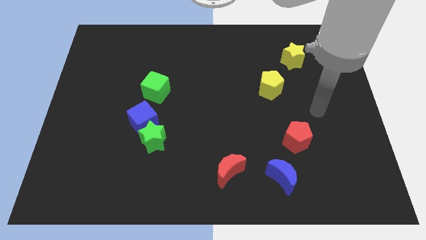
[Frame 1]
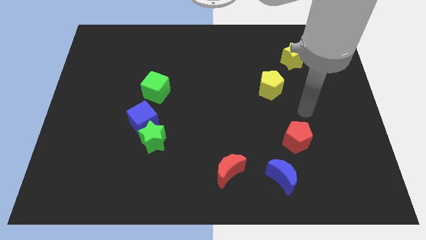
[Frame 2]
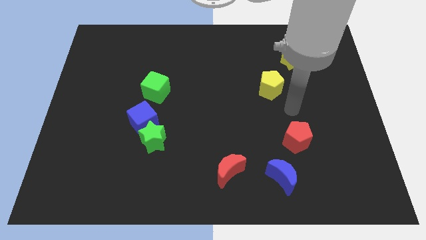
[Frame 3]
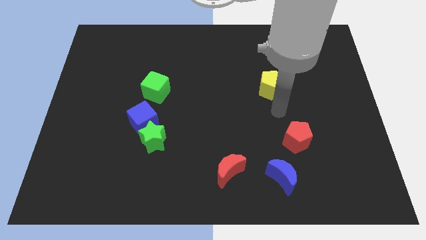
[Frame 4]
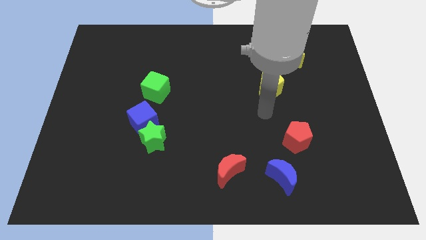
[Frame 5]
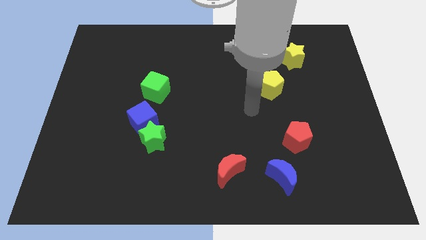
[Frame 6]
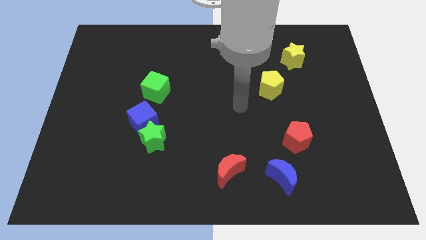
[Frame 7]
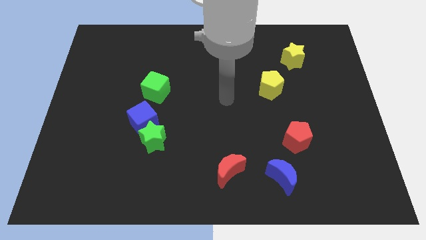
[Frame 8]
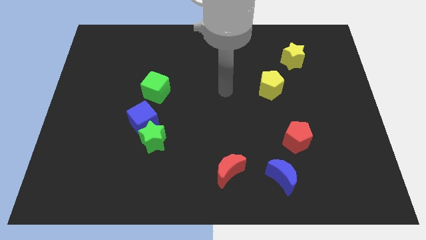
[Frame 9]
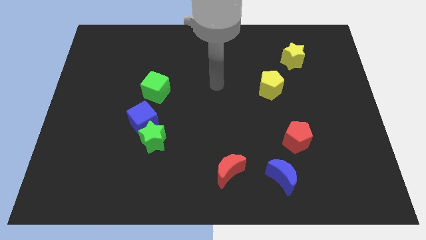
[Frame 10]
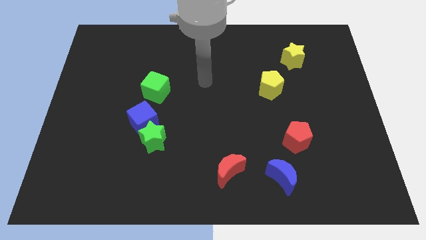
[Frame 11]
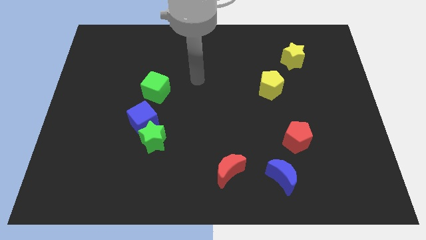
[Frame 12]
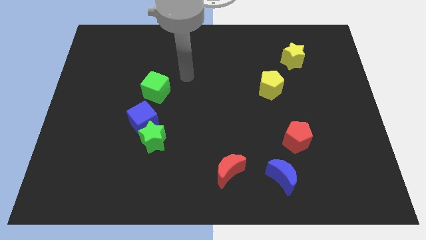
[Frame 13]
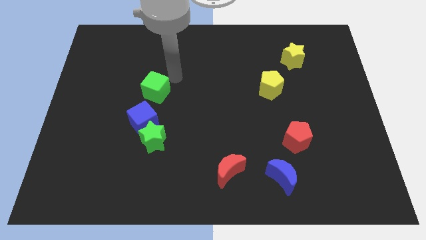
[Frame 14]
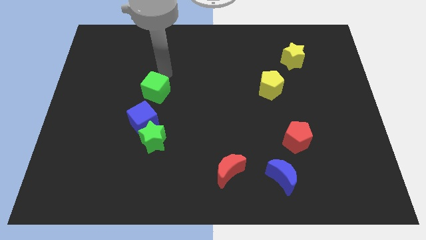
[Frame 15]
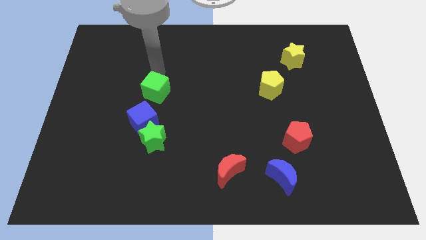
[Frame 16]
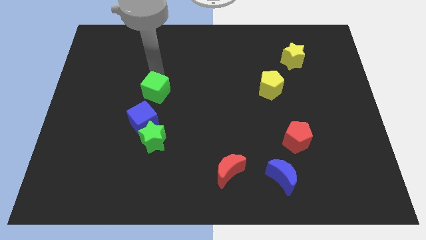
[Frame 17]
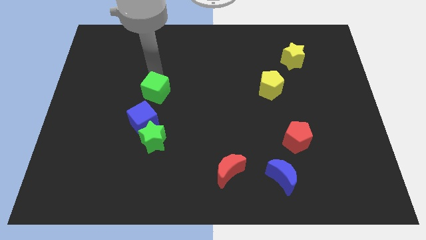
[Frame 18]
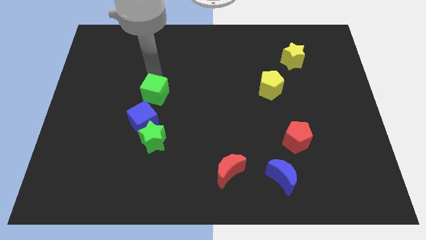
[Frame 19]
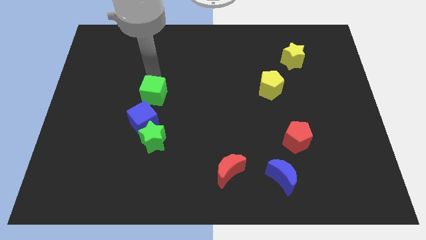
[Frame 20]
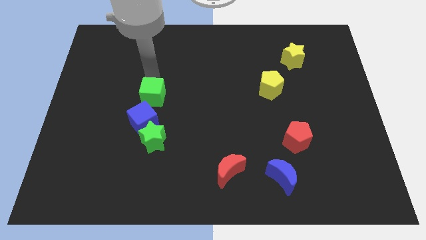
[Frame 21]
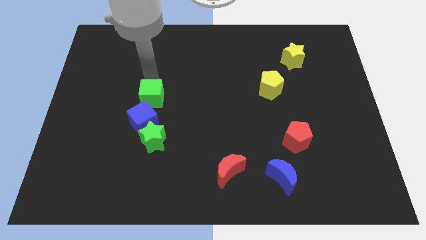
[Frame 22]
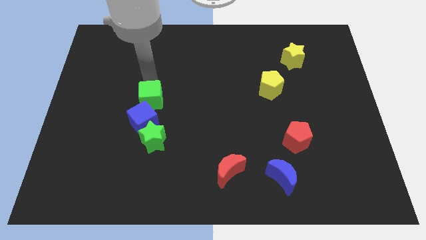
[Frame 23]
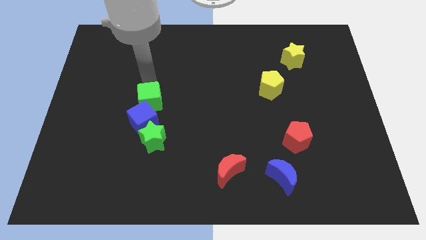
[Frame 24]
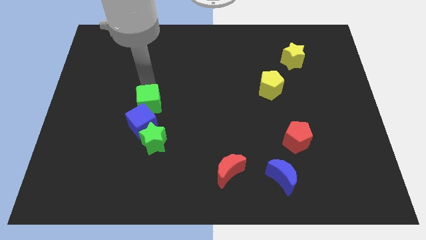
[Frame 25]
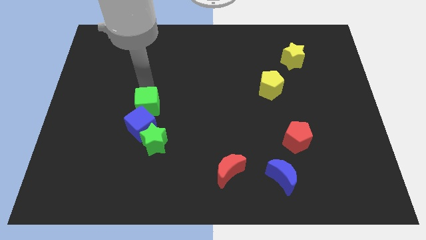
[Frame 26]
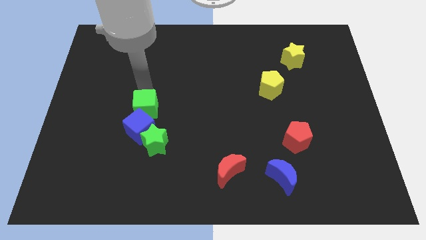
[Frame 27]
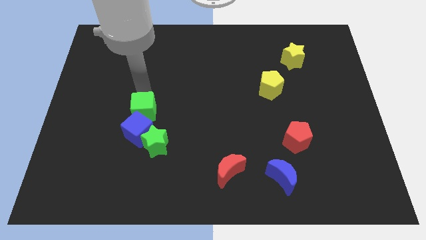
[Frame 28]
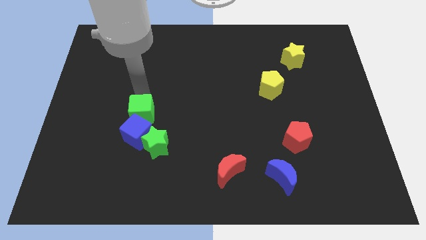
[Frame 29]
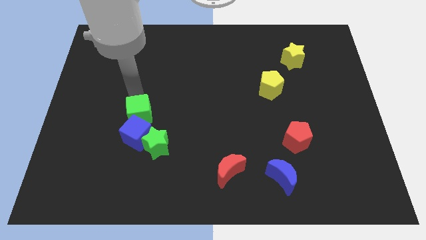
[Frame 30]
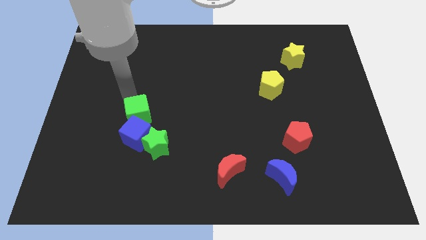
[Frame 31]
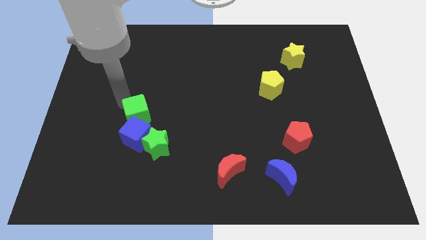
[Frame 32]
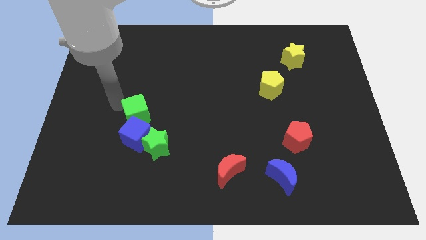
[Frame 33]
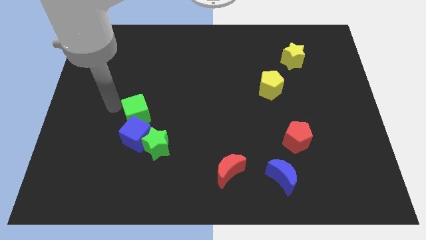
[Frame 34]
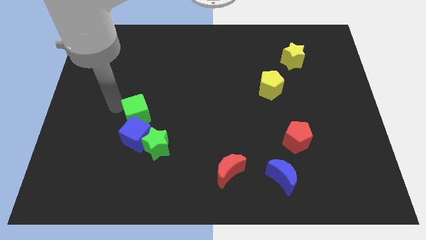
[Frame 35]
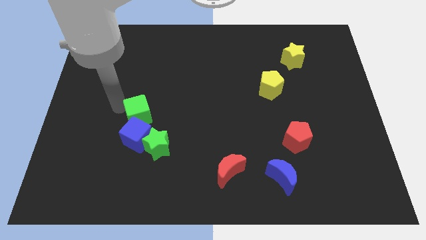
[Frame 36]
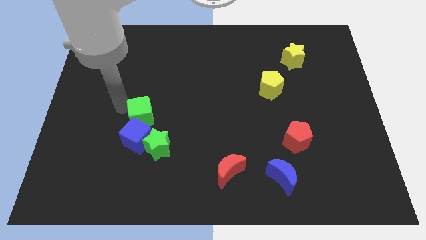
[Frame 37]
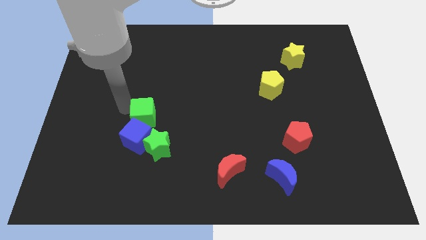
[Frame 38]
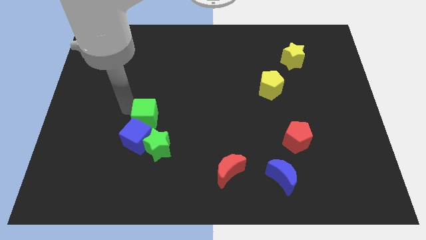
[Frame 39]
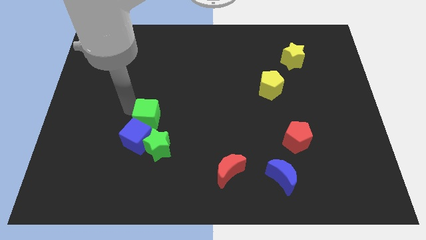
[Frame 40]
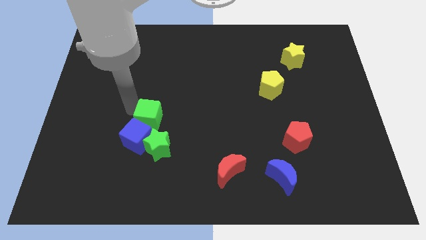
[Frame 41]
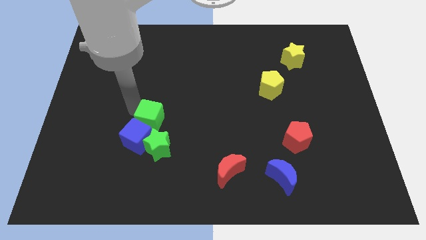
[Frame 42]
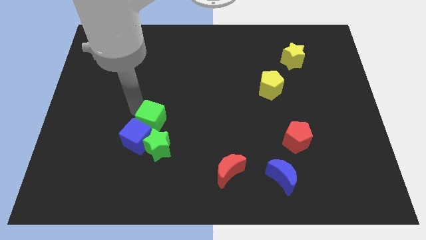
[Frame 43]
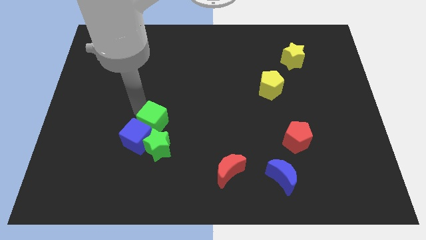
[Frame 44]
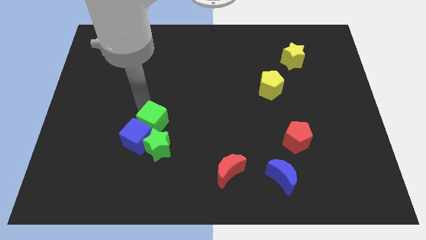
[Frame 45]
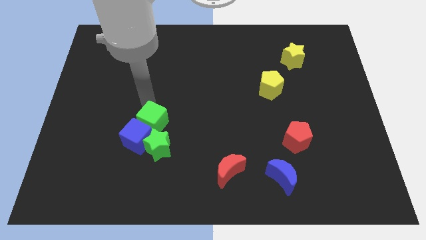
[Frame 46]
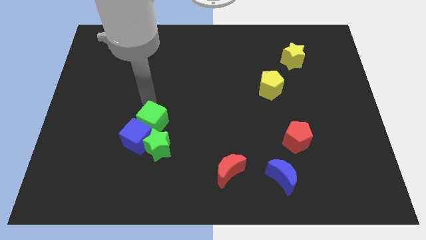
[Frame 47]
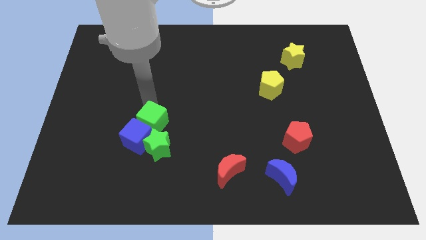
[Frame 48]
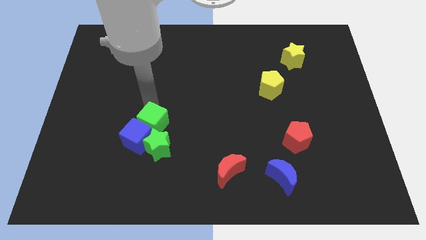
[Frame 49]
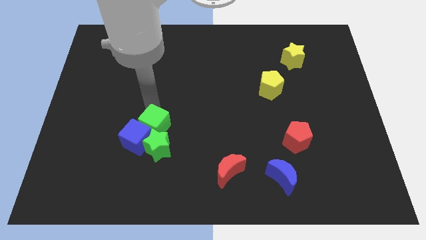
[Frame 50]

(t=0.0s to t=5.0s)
push the green cube to the green star

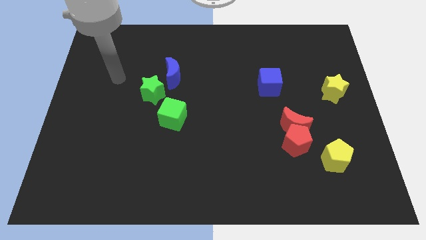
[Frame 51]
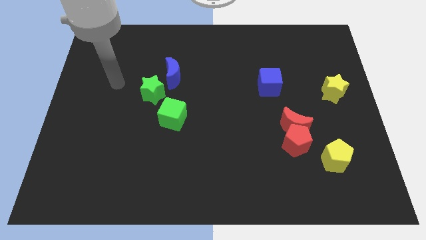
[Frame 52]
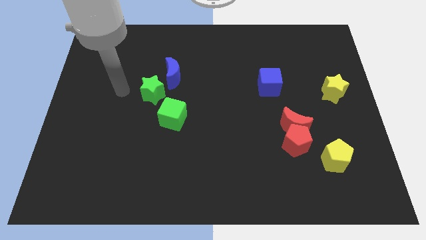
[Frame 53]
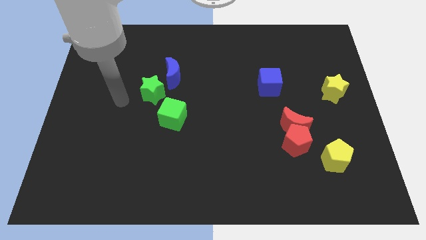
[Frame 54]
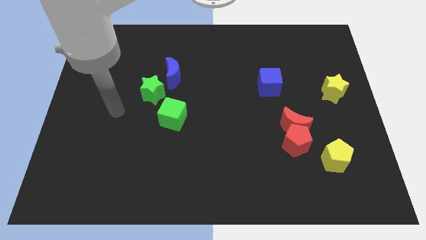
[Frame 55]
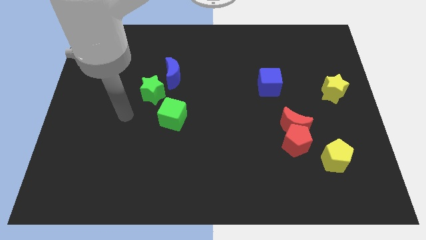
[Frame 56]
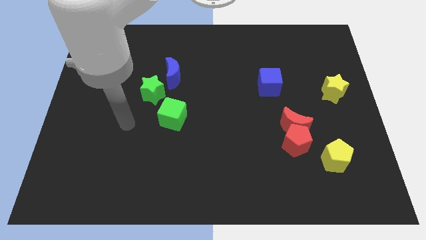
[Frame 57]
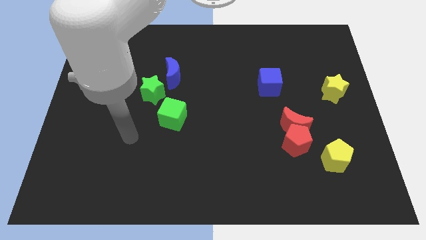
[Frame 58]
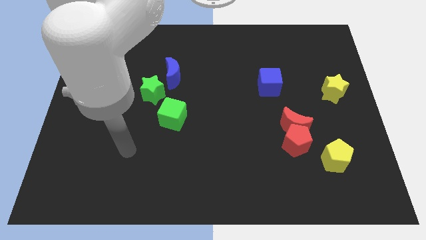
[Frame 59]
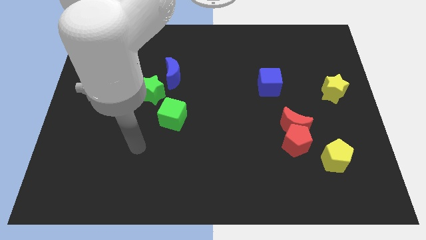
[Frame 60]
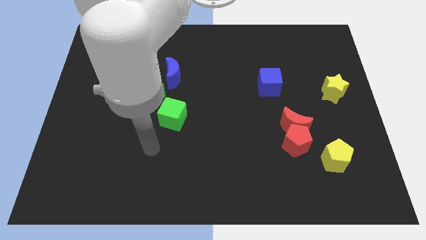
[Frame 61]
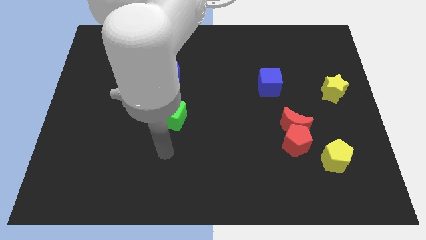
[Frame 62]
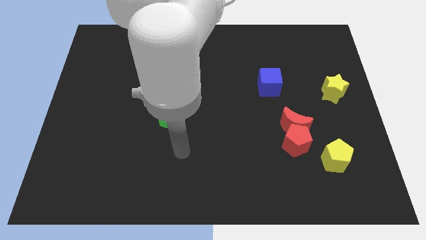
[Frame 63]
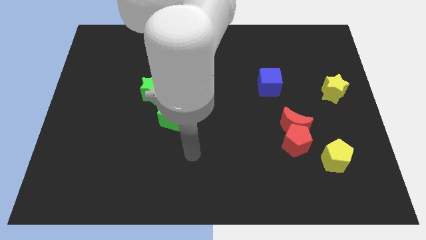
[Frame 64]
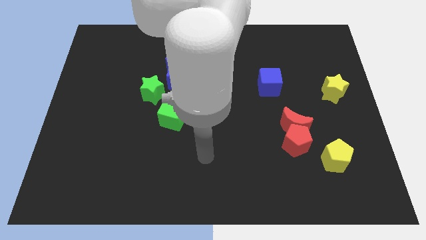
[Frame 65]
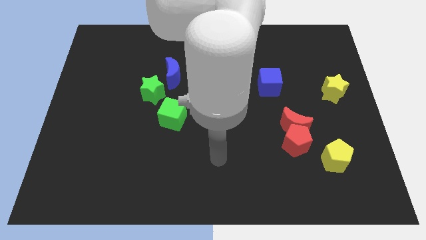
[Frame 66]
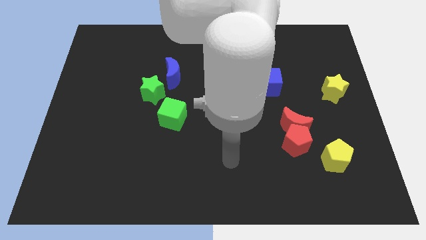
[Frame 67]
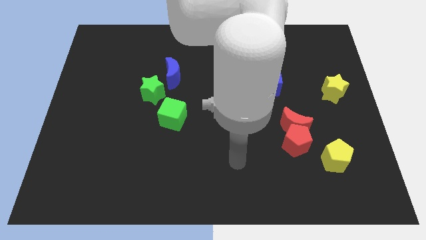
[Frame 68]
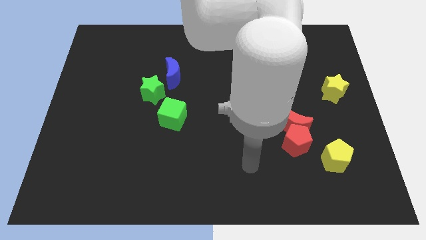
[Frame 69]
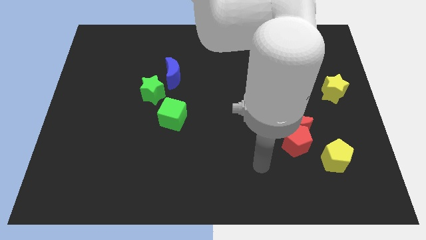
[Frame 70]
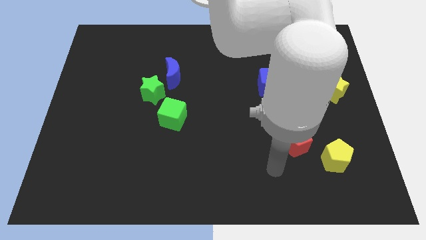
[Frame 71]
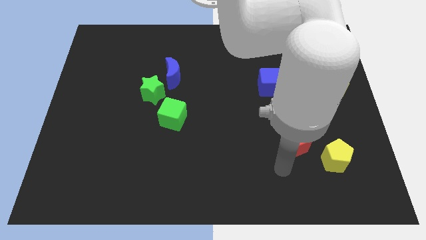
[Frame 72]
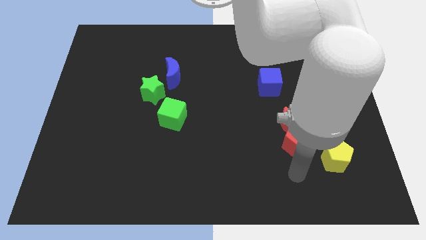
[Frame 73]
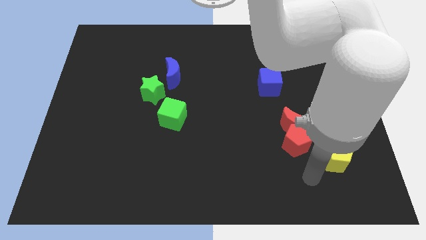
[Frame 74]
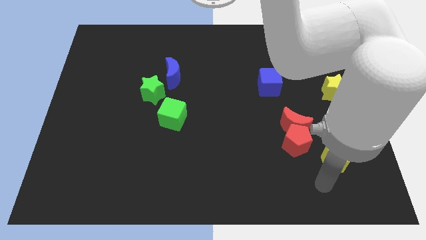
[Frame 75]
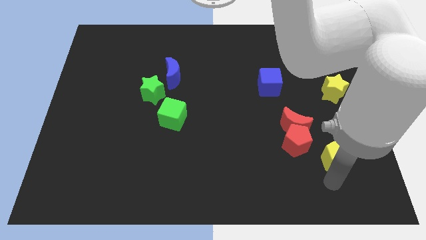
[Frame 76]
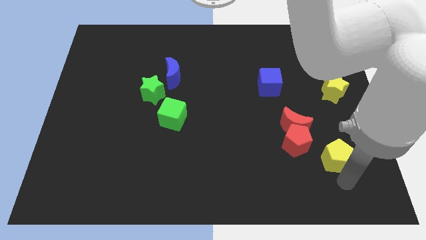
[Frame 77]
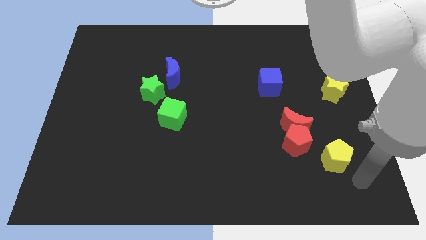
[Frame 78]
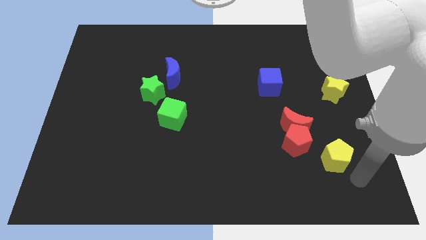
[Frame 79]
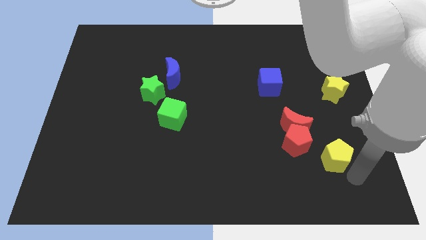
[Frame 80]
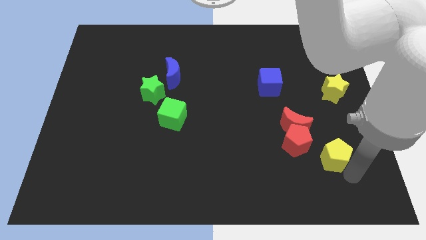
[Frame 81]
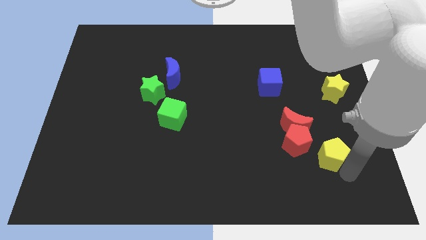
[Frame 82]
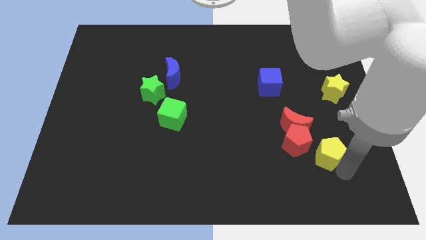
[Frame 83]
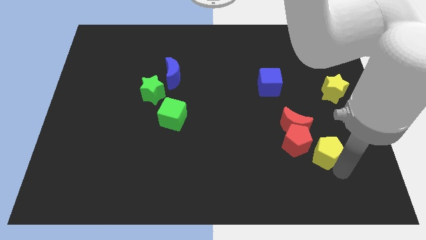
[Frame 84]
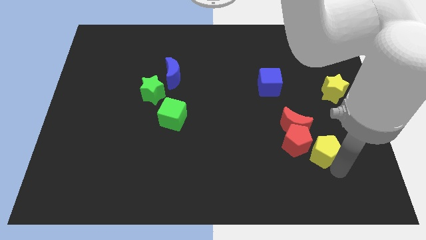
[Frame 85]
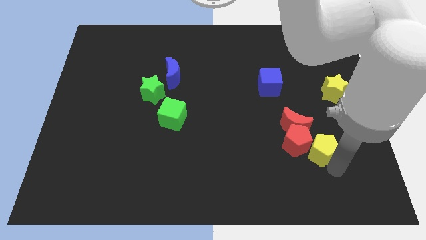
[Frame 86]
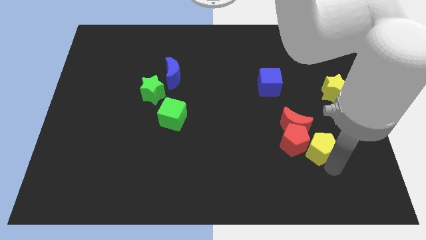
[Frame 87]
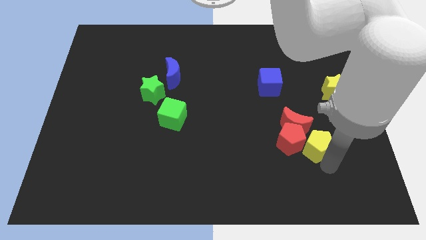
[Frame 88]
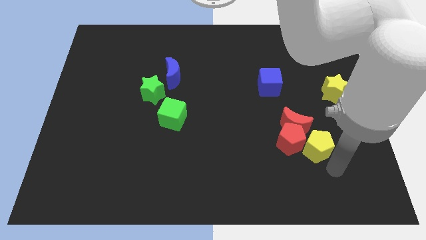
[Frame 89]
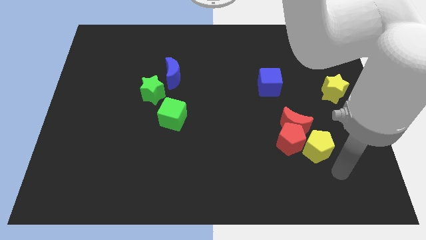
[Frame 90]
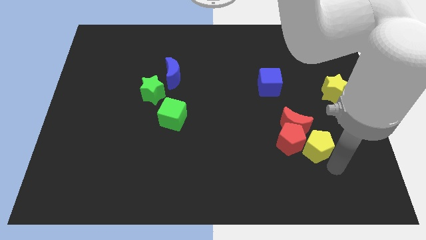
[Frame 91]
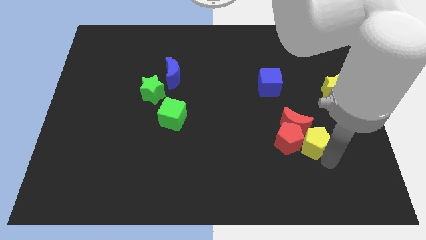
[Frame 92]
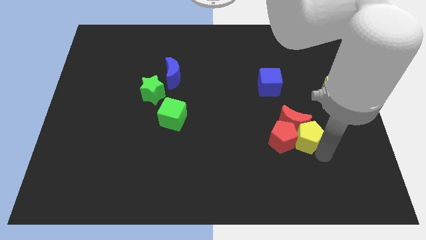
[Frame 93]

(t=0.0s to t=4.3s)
slide the yellow pentagon close to the red moon
